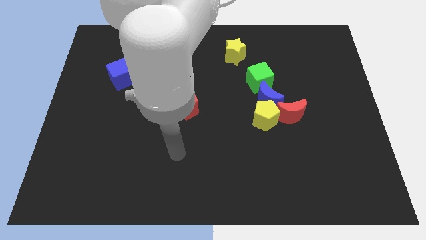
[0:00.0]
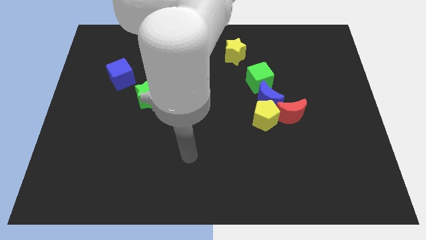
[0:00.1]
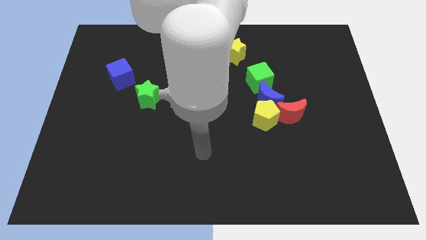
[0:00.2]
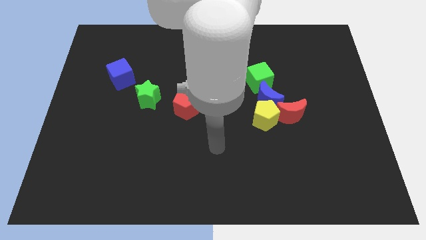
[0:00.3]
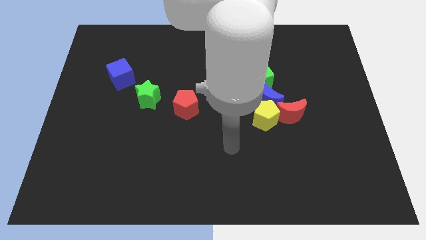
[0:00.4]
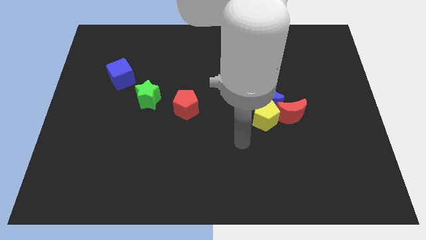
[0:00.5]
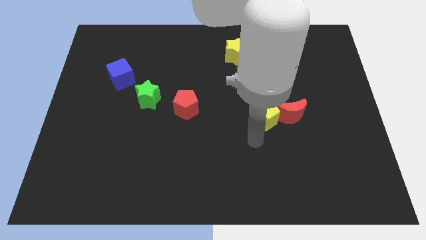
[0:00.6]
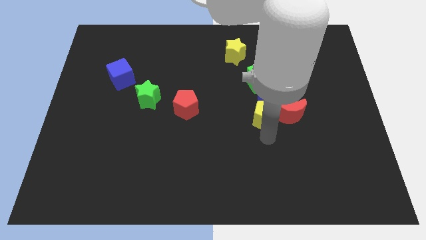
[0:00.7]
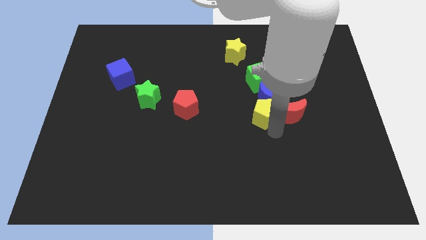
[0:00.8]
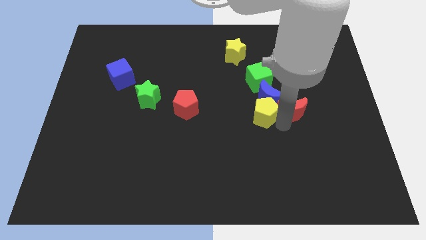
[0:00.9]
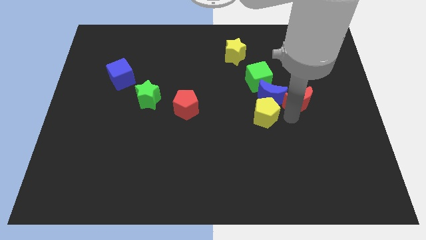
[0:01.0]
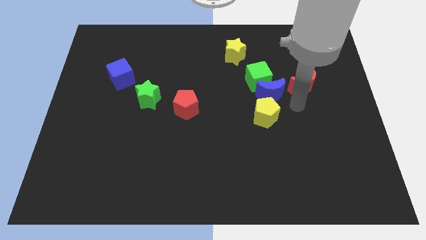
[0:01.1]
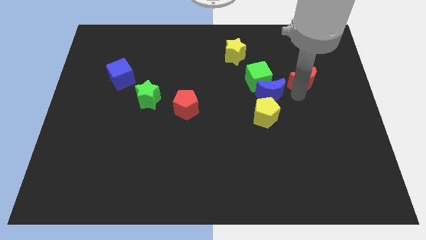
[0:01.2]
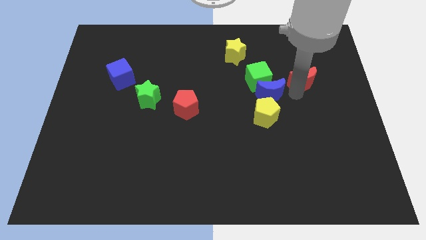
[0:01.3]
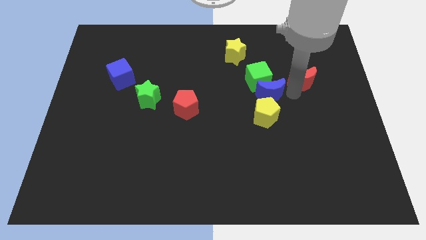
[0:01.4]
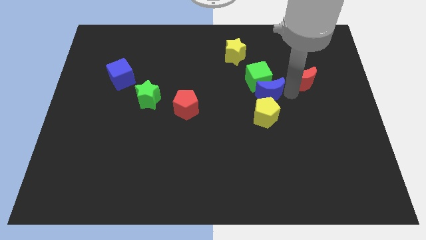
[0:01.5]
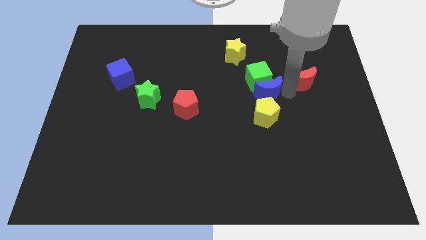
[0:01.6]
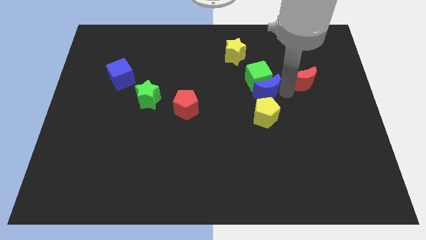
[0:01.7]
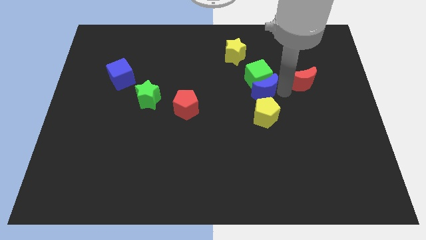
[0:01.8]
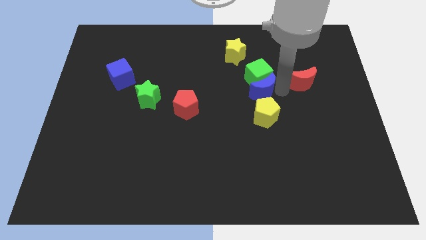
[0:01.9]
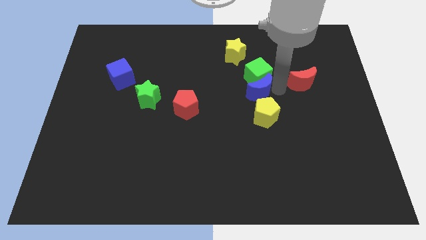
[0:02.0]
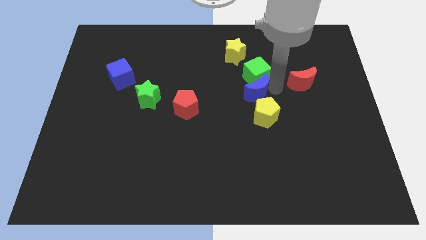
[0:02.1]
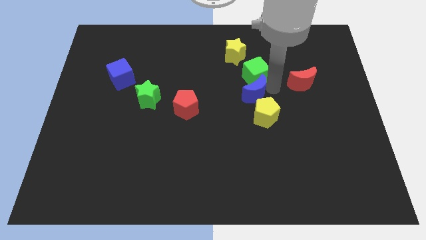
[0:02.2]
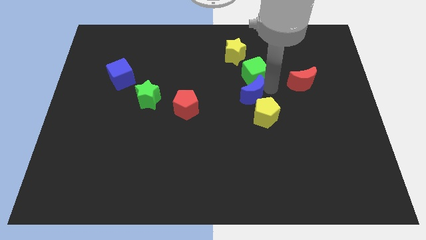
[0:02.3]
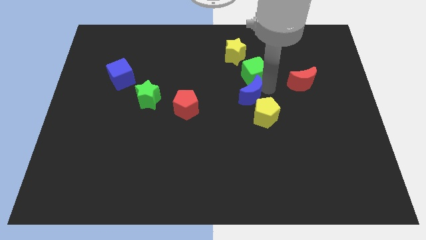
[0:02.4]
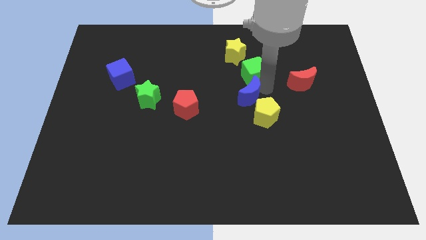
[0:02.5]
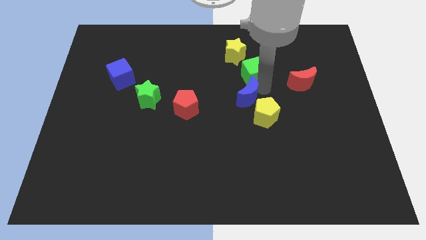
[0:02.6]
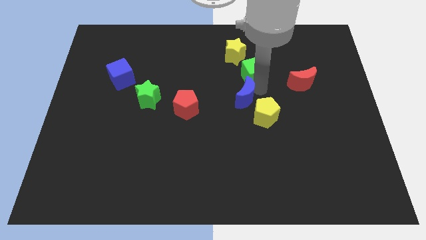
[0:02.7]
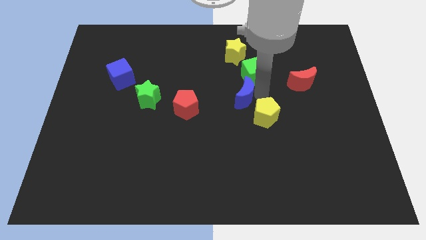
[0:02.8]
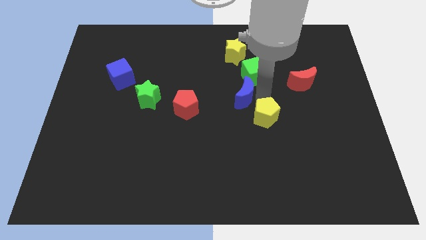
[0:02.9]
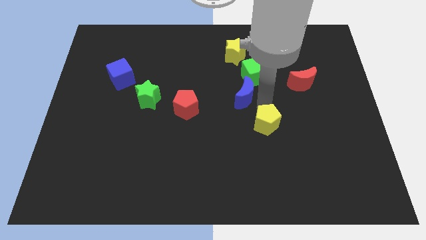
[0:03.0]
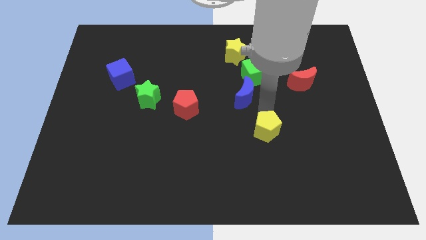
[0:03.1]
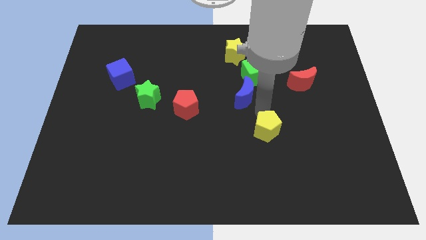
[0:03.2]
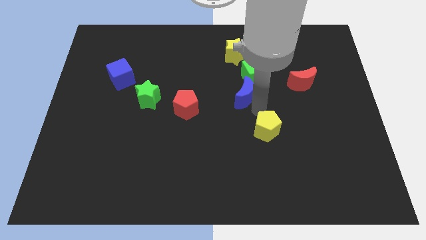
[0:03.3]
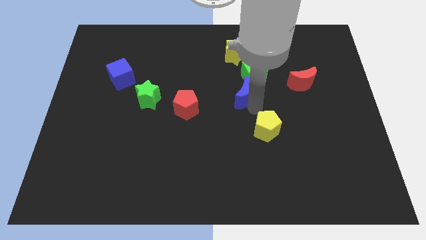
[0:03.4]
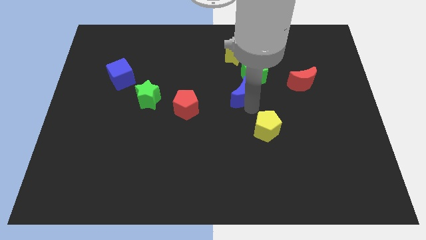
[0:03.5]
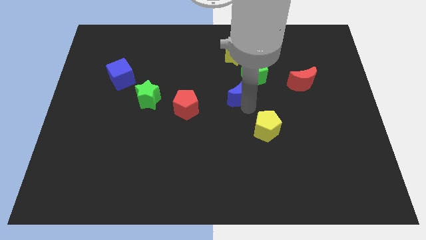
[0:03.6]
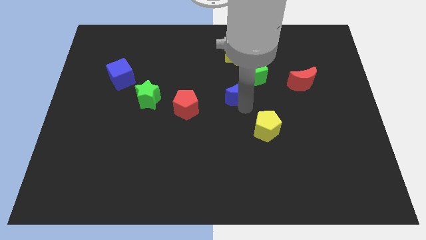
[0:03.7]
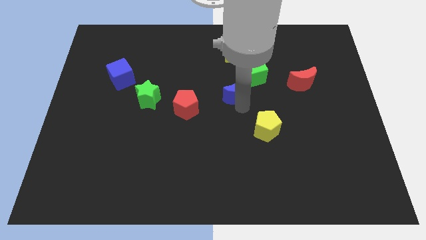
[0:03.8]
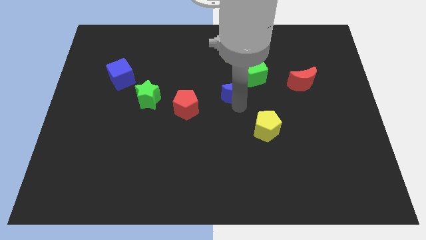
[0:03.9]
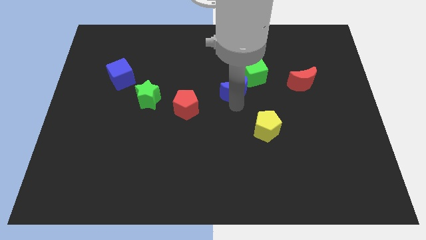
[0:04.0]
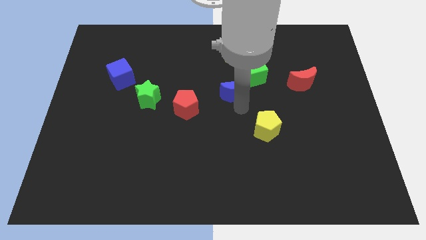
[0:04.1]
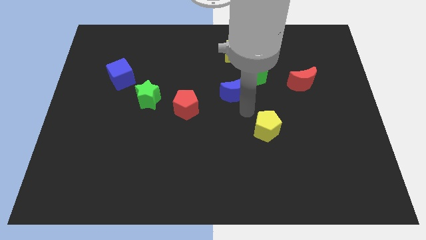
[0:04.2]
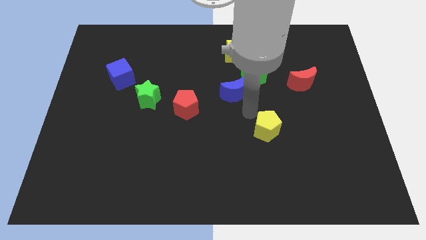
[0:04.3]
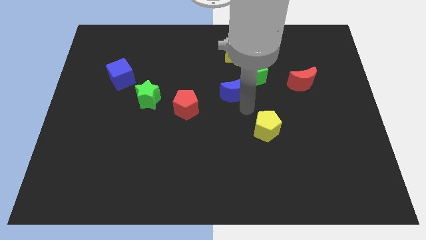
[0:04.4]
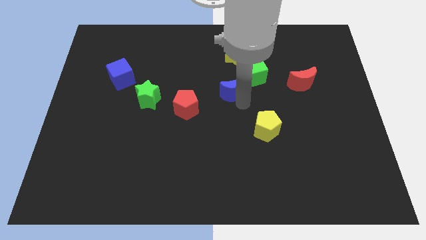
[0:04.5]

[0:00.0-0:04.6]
push the blue moon diagonally upwards and to the left slightly

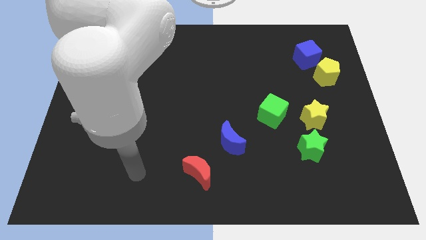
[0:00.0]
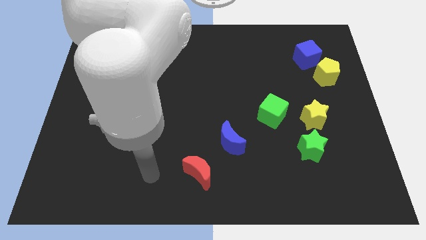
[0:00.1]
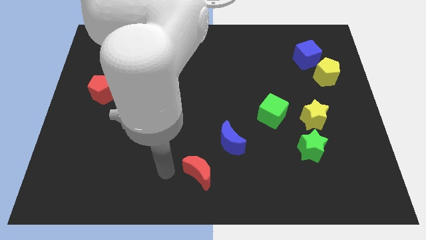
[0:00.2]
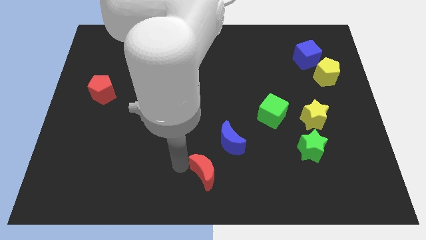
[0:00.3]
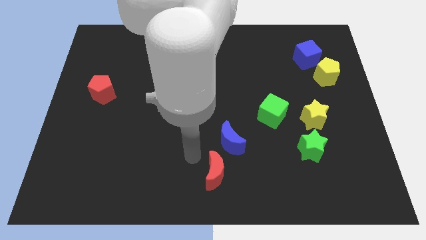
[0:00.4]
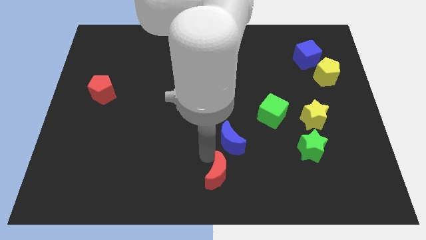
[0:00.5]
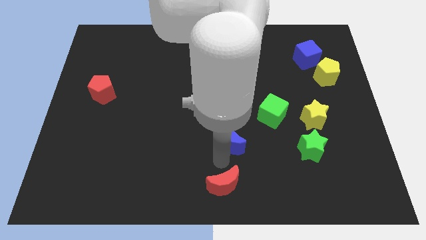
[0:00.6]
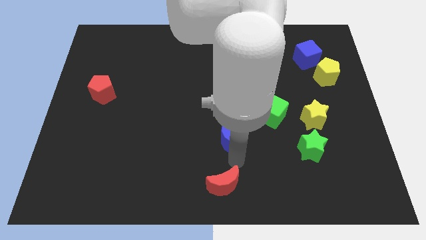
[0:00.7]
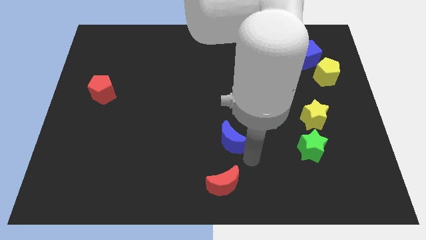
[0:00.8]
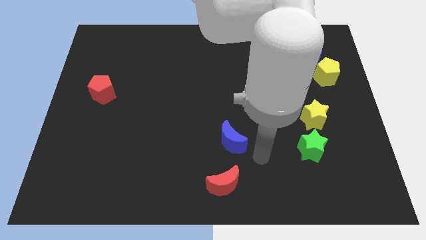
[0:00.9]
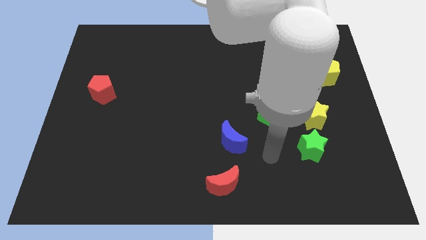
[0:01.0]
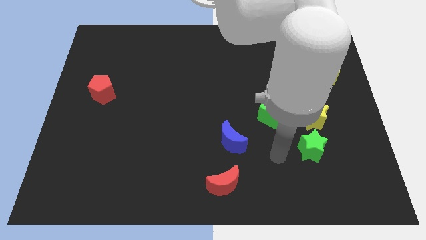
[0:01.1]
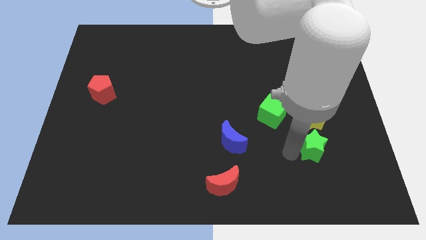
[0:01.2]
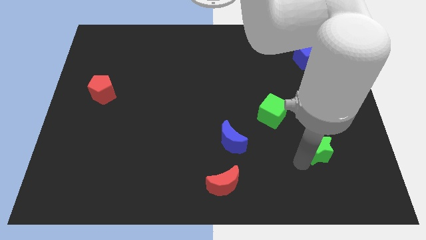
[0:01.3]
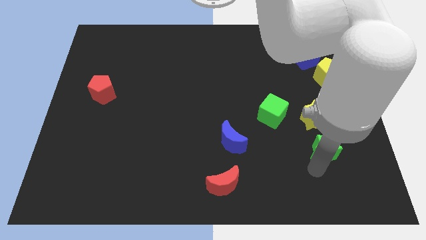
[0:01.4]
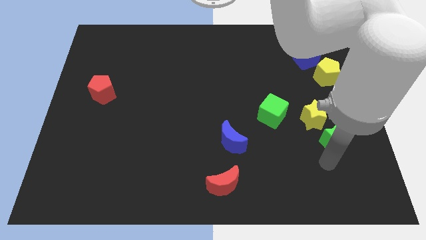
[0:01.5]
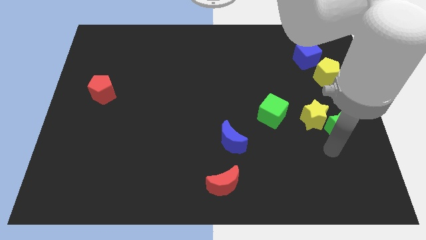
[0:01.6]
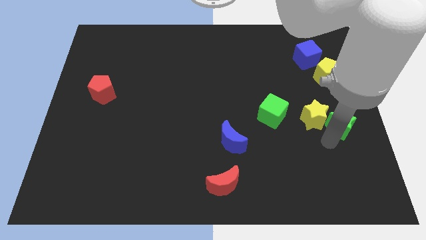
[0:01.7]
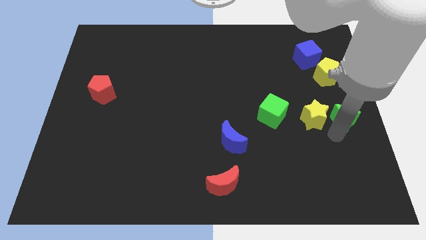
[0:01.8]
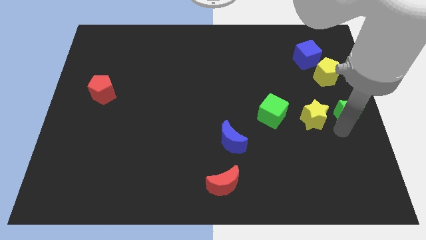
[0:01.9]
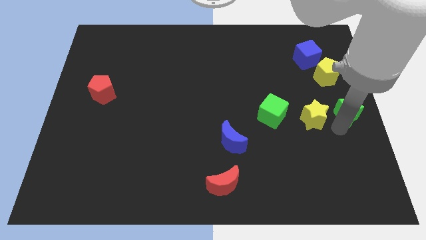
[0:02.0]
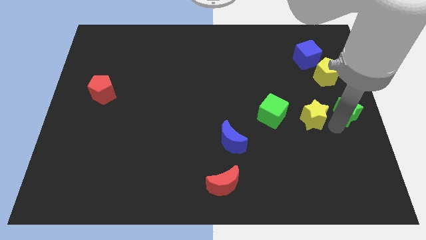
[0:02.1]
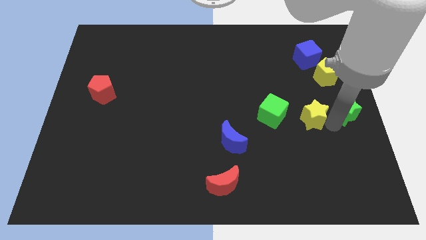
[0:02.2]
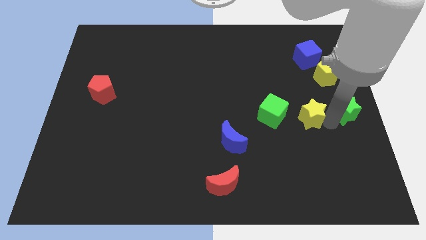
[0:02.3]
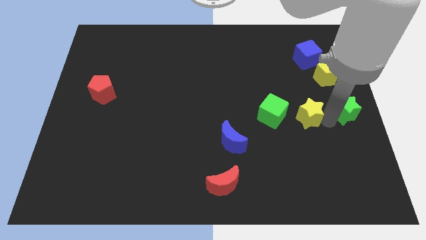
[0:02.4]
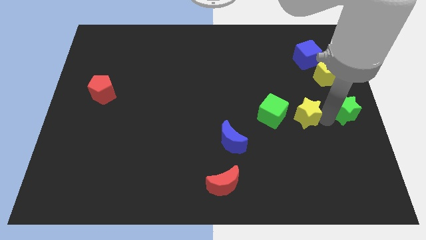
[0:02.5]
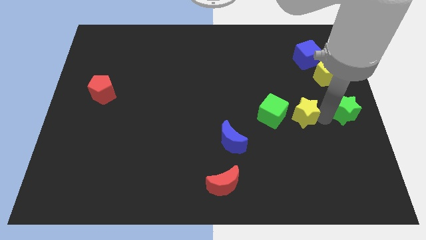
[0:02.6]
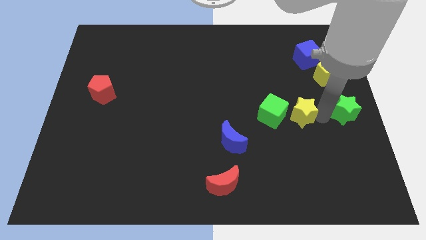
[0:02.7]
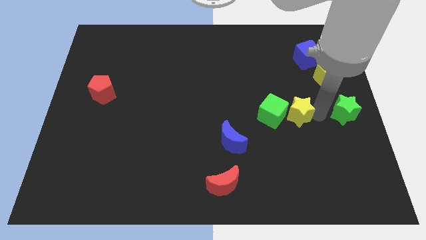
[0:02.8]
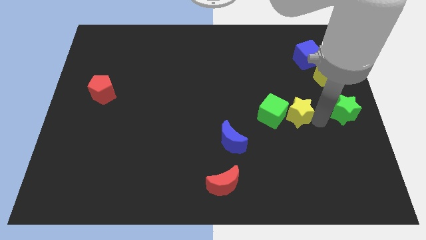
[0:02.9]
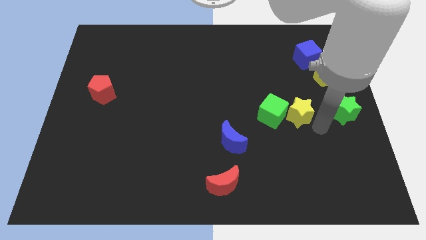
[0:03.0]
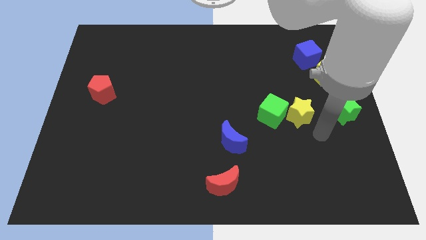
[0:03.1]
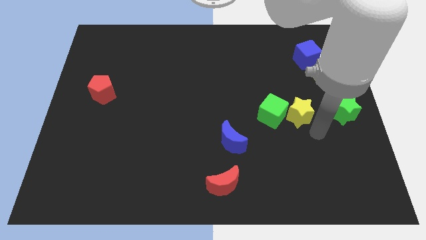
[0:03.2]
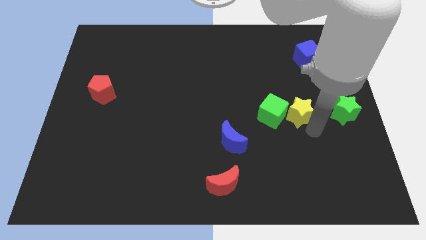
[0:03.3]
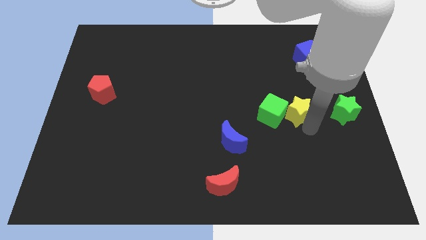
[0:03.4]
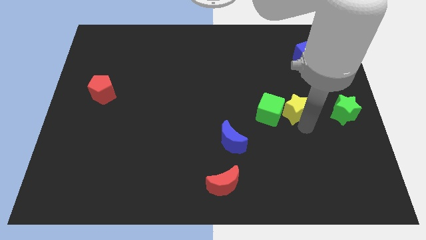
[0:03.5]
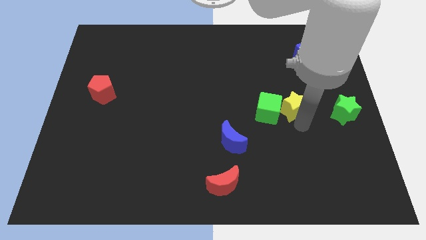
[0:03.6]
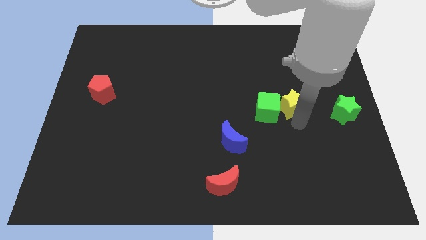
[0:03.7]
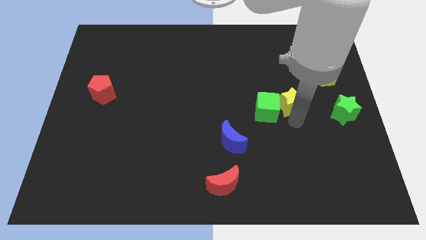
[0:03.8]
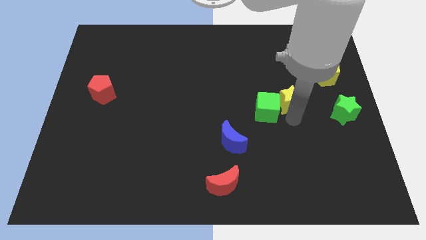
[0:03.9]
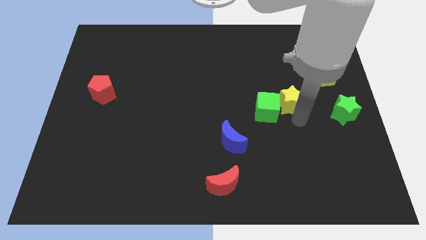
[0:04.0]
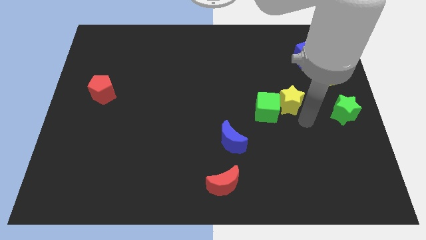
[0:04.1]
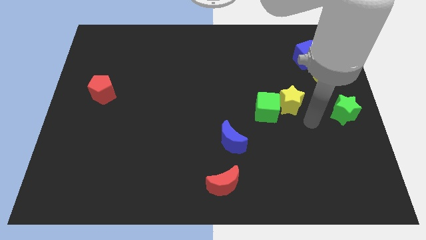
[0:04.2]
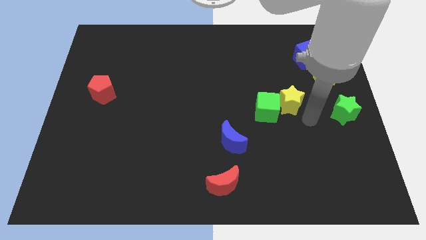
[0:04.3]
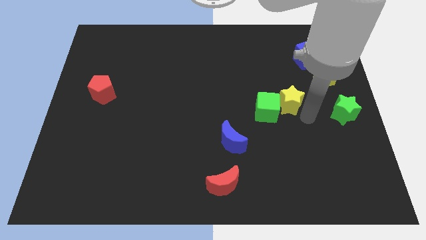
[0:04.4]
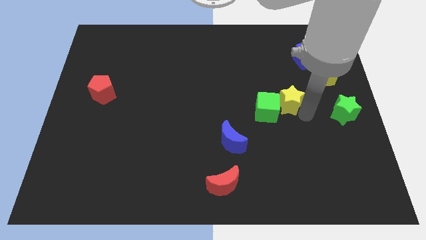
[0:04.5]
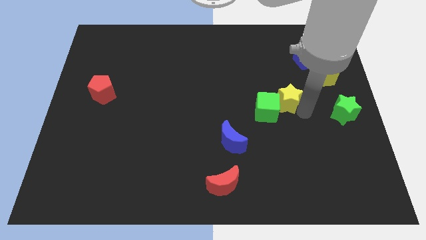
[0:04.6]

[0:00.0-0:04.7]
slide the yellow star diagonally upwards and to the left a little bit
